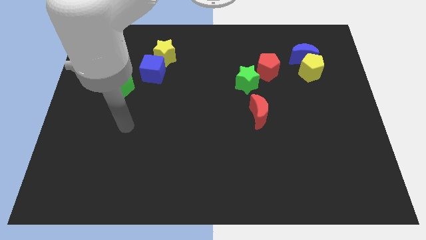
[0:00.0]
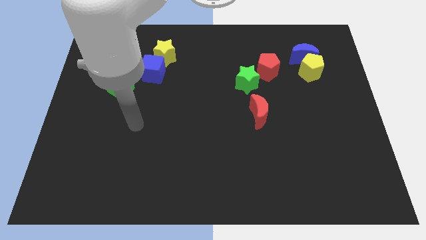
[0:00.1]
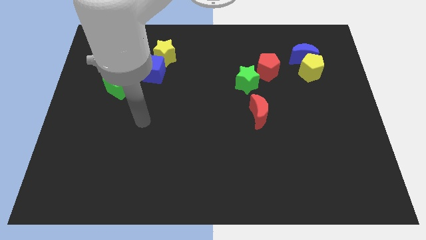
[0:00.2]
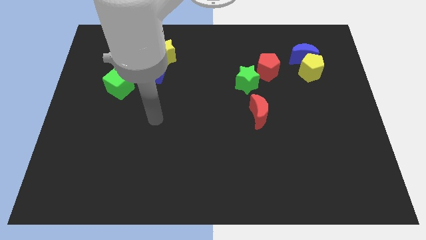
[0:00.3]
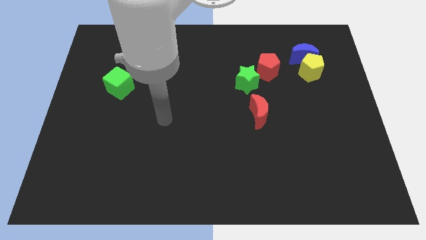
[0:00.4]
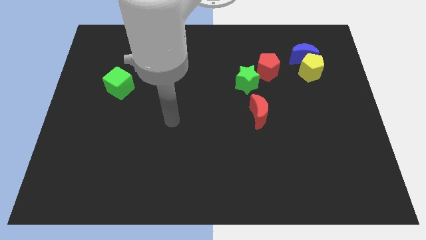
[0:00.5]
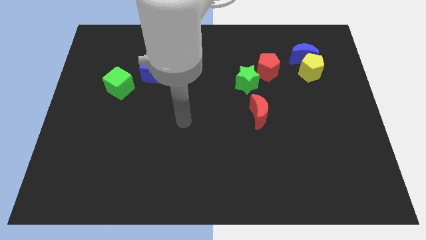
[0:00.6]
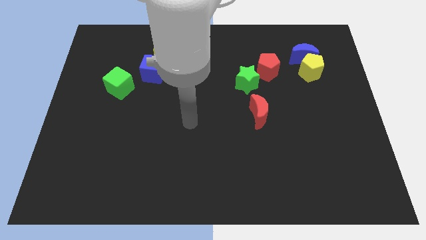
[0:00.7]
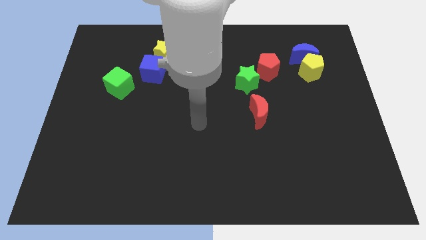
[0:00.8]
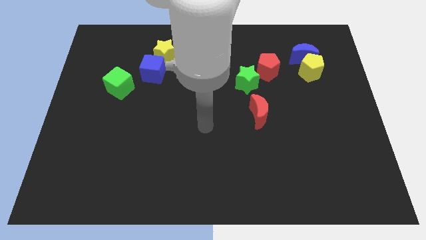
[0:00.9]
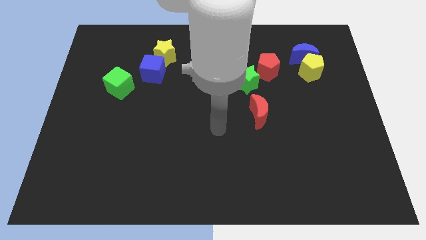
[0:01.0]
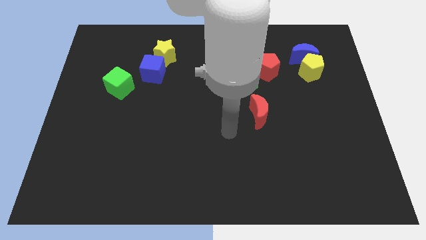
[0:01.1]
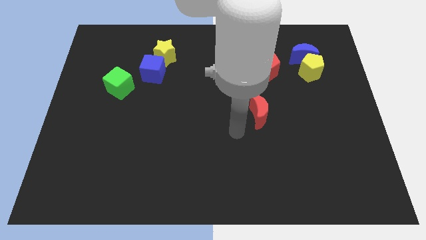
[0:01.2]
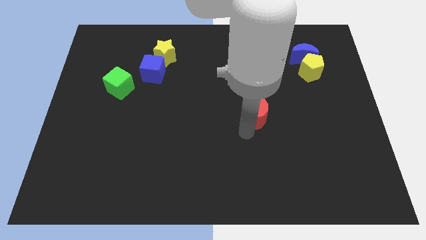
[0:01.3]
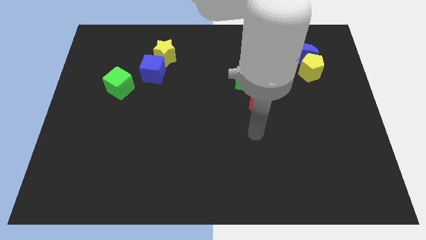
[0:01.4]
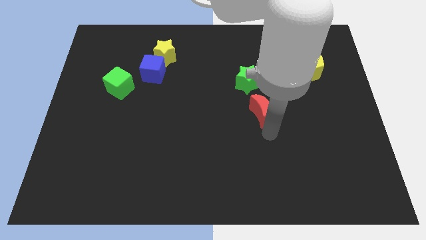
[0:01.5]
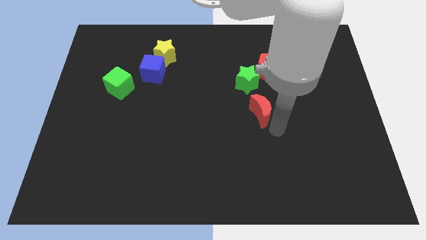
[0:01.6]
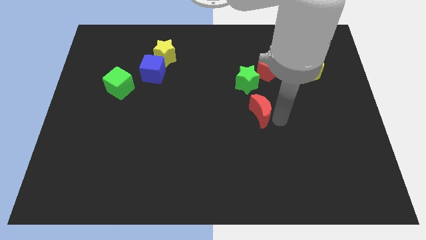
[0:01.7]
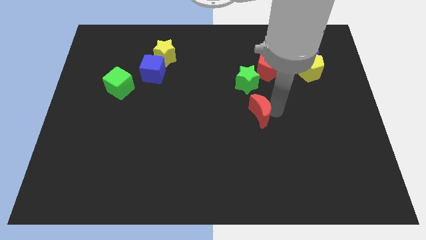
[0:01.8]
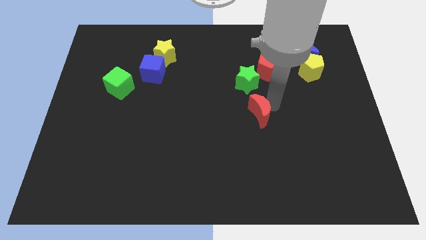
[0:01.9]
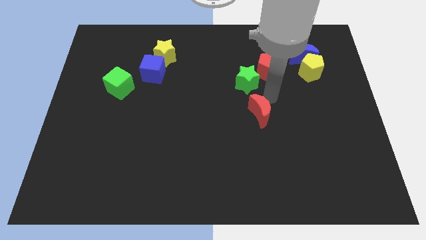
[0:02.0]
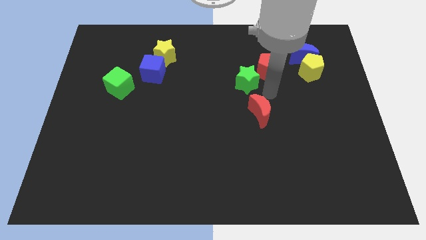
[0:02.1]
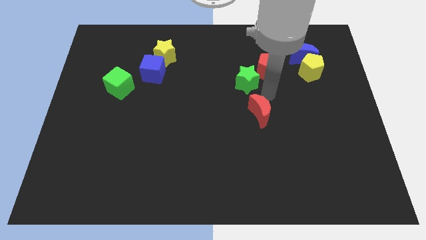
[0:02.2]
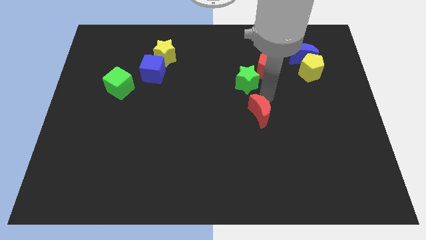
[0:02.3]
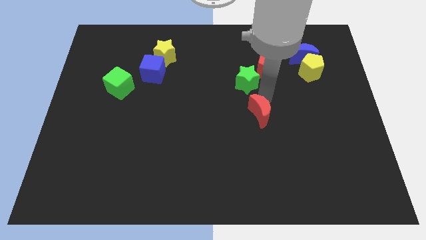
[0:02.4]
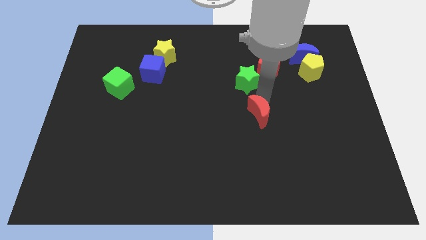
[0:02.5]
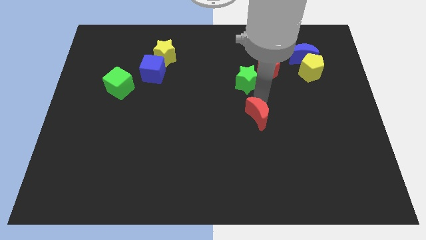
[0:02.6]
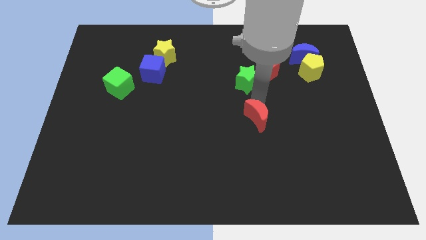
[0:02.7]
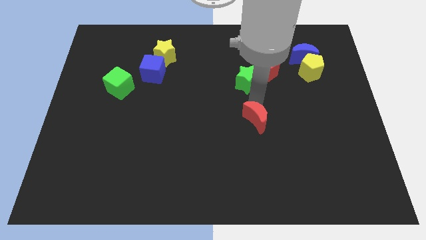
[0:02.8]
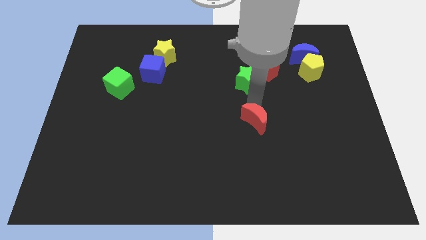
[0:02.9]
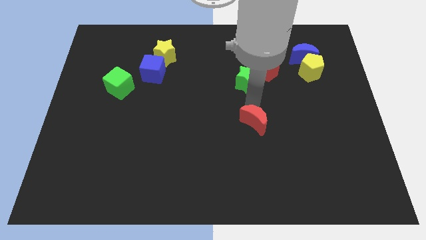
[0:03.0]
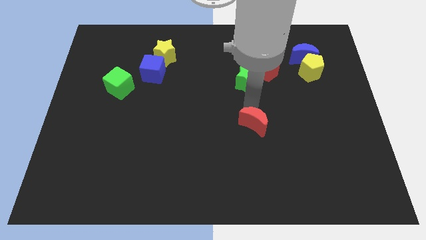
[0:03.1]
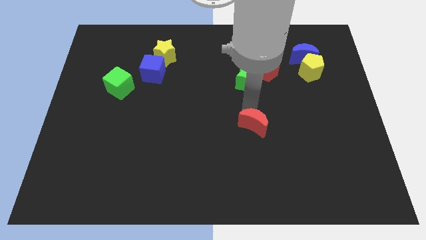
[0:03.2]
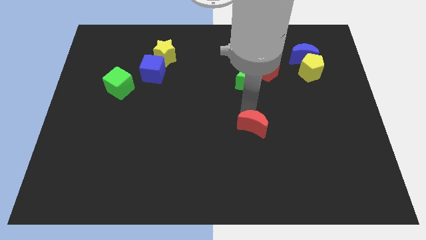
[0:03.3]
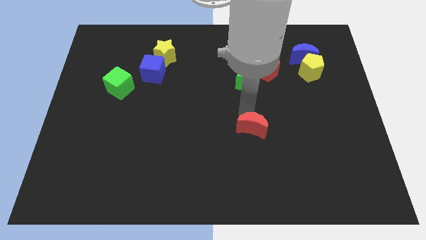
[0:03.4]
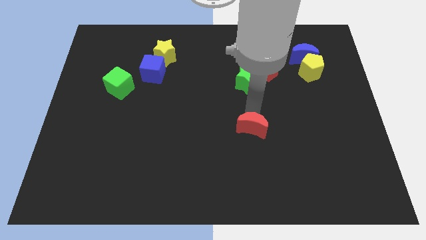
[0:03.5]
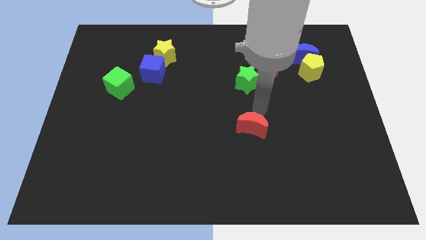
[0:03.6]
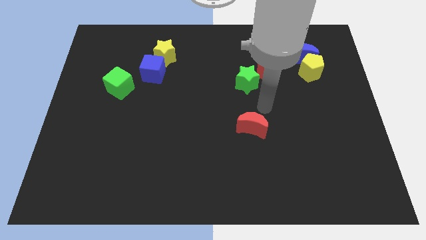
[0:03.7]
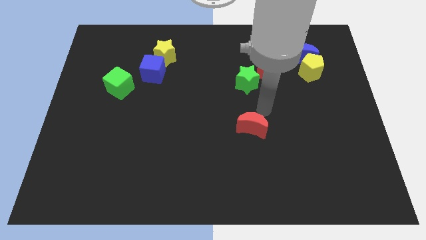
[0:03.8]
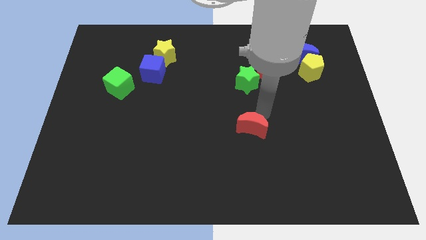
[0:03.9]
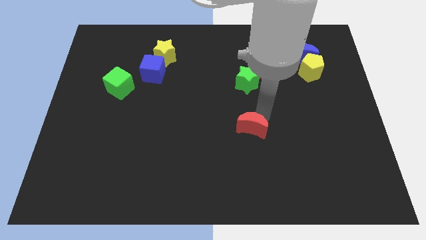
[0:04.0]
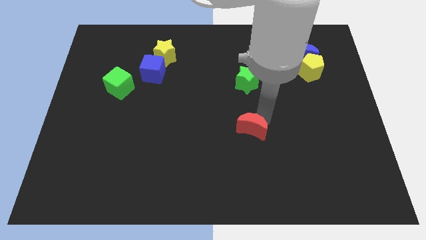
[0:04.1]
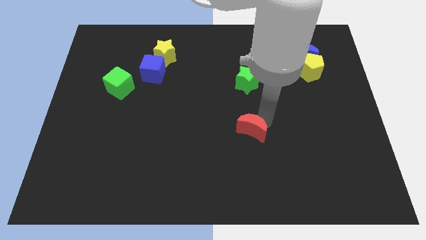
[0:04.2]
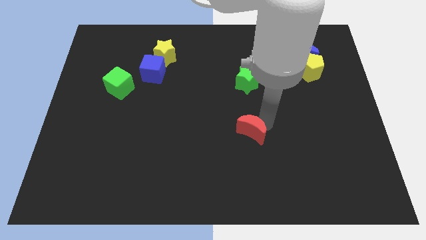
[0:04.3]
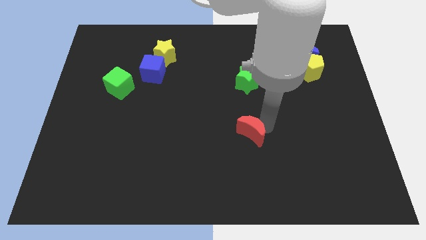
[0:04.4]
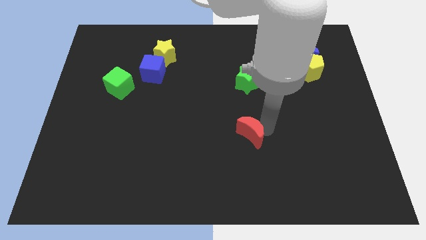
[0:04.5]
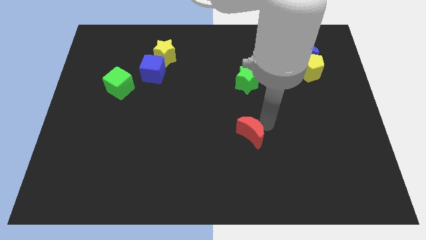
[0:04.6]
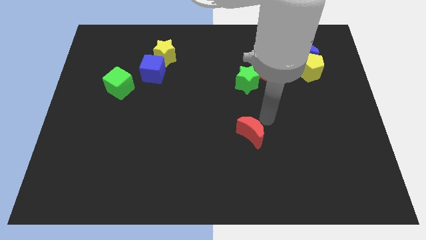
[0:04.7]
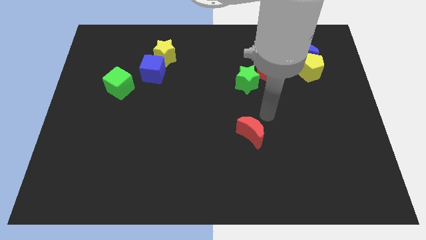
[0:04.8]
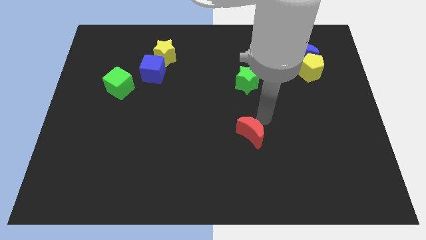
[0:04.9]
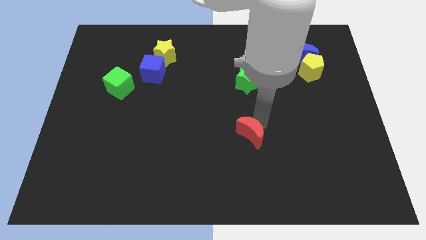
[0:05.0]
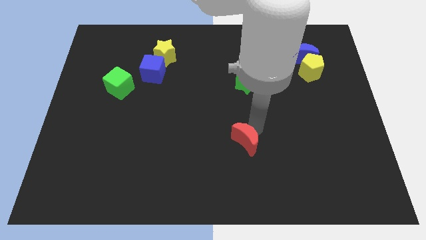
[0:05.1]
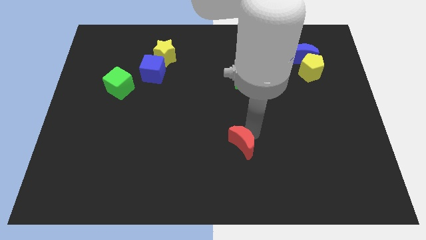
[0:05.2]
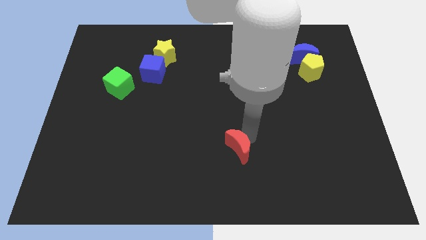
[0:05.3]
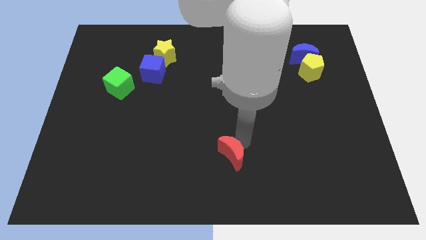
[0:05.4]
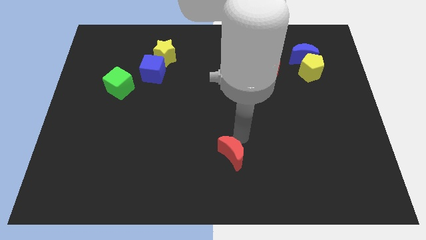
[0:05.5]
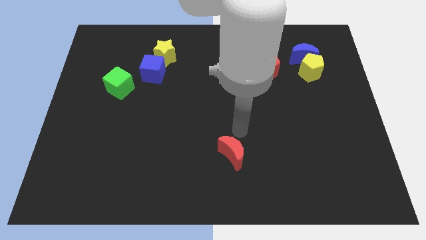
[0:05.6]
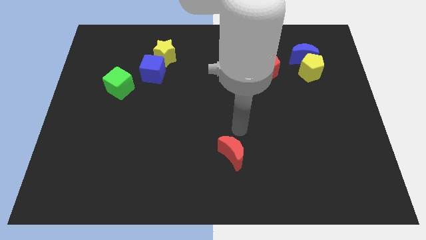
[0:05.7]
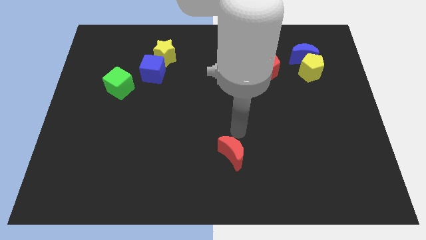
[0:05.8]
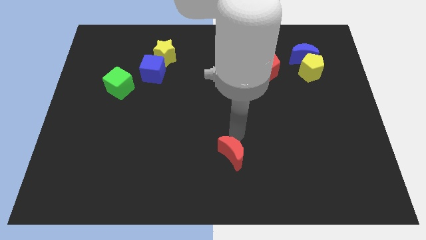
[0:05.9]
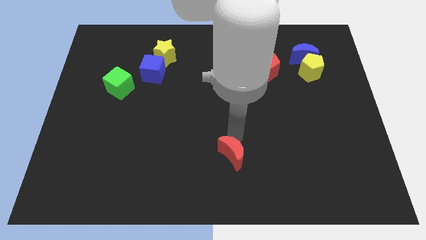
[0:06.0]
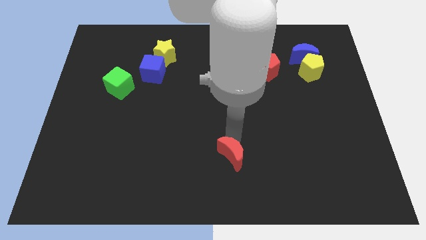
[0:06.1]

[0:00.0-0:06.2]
push the red moon to the bottom
